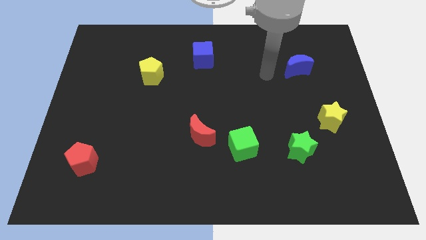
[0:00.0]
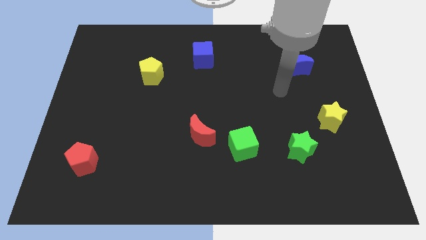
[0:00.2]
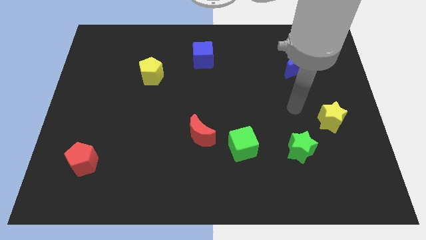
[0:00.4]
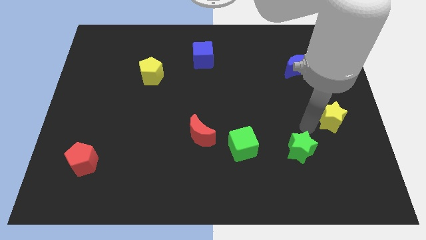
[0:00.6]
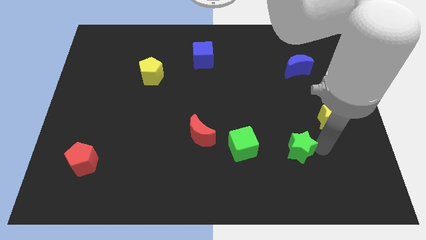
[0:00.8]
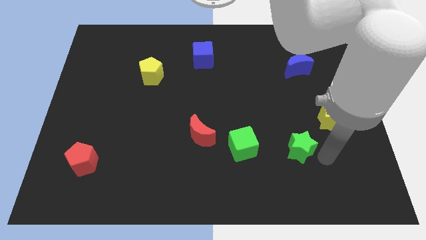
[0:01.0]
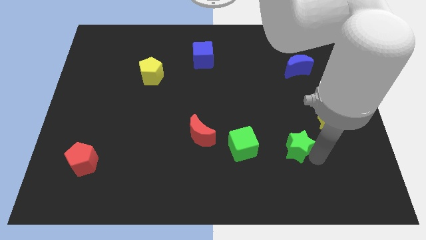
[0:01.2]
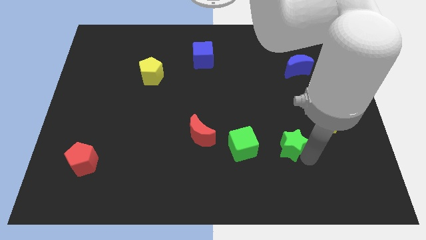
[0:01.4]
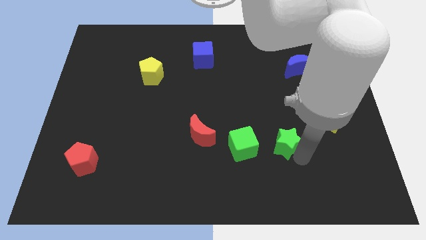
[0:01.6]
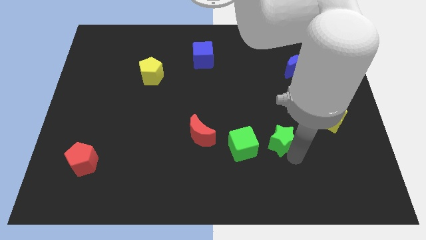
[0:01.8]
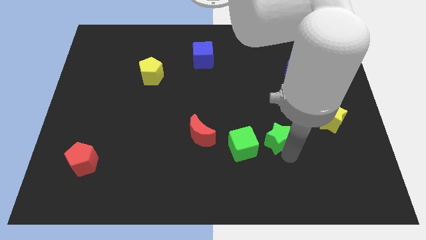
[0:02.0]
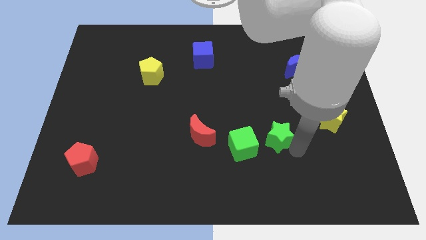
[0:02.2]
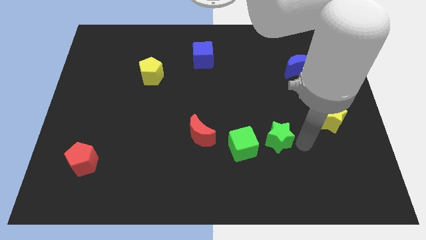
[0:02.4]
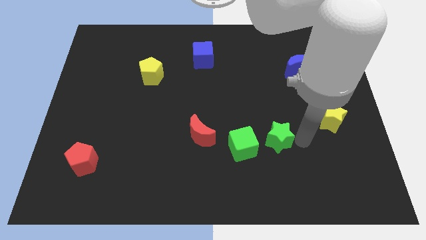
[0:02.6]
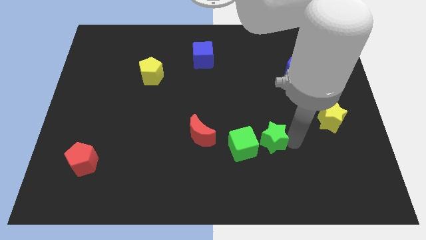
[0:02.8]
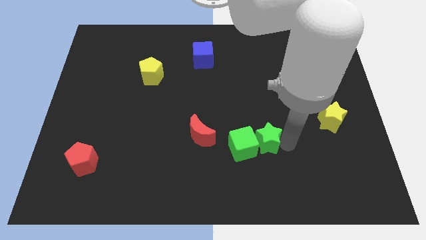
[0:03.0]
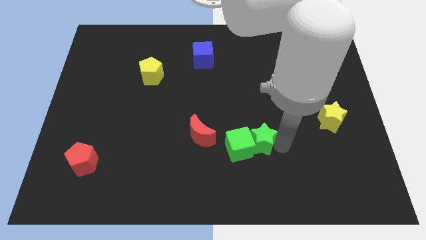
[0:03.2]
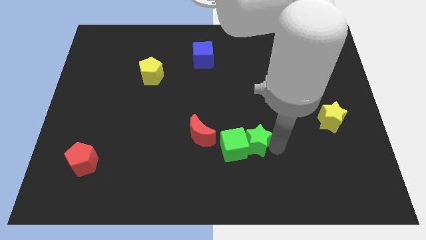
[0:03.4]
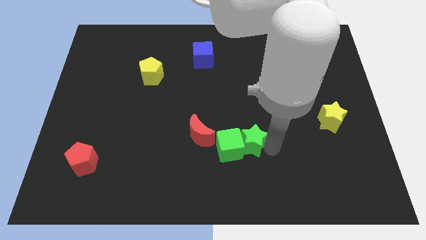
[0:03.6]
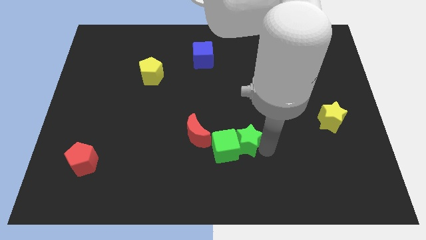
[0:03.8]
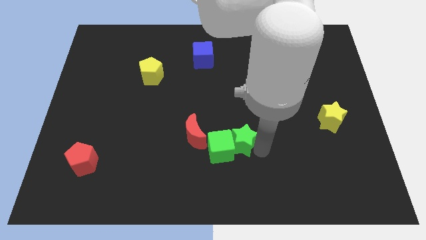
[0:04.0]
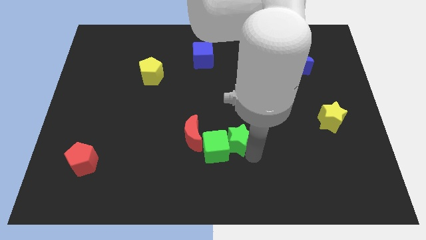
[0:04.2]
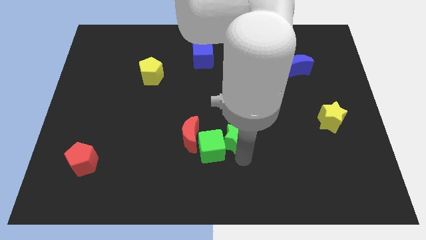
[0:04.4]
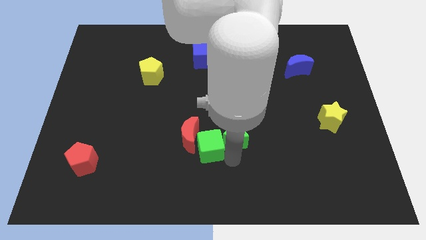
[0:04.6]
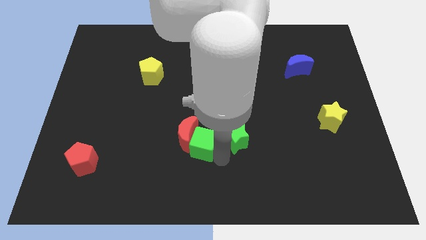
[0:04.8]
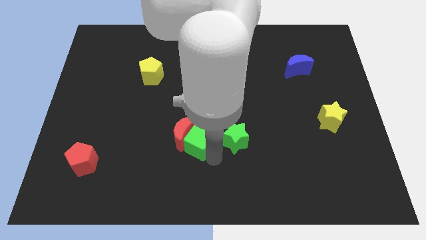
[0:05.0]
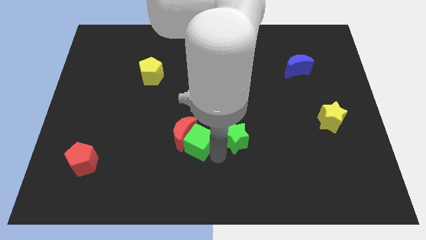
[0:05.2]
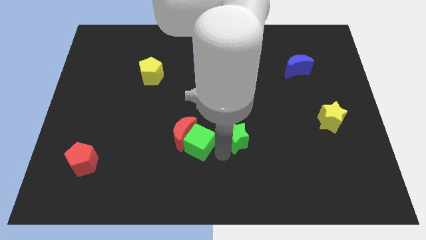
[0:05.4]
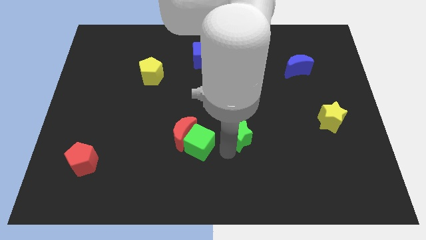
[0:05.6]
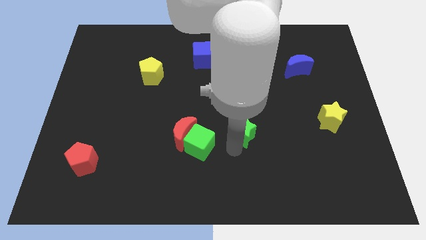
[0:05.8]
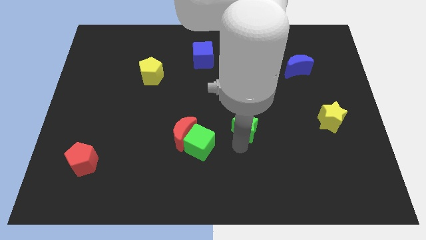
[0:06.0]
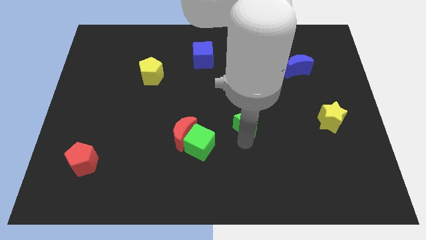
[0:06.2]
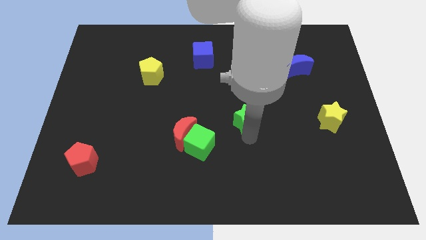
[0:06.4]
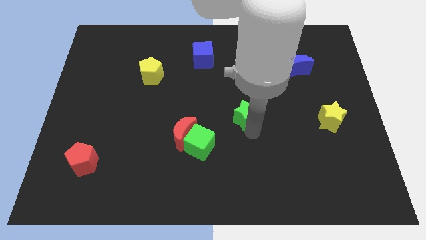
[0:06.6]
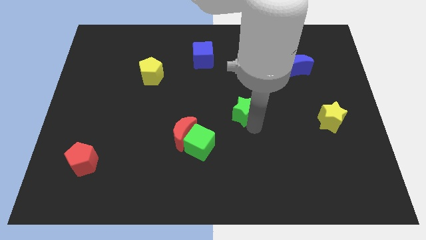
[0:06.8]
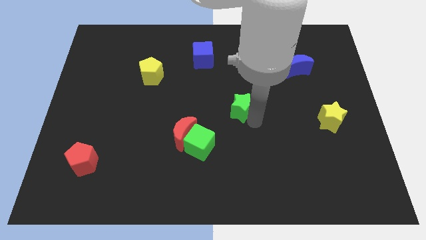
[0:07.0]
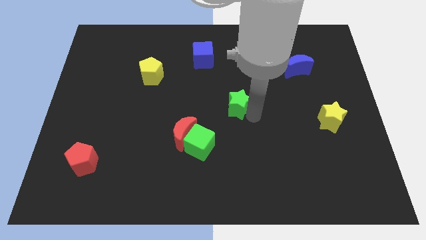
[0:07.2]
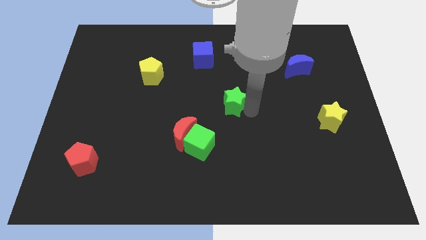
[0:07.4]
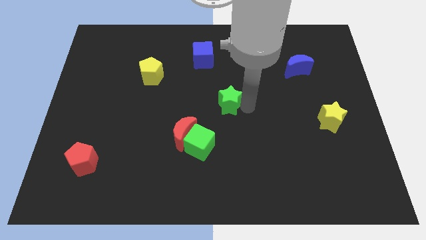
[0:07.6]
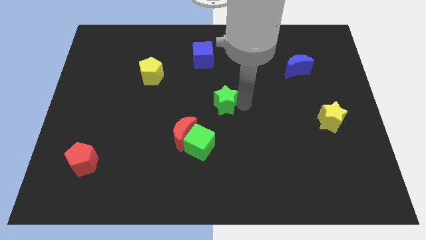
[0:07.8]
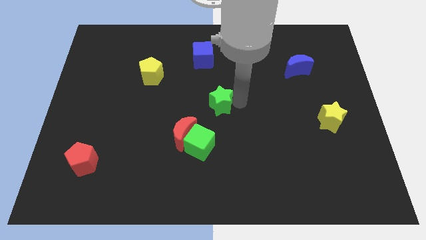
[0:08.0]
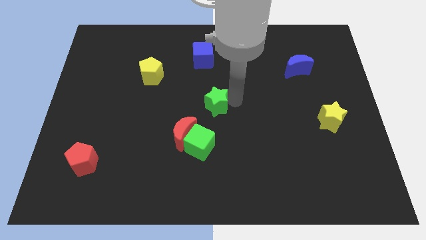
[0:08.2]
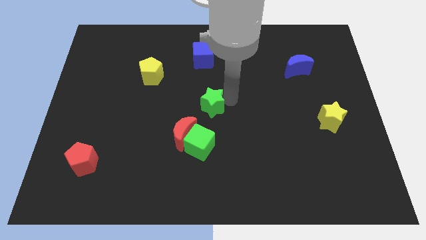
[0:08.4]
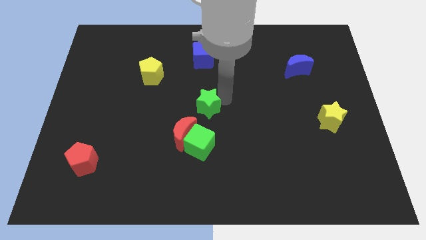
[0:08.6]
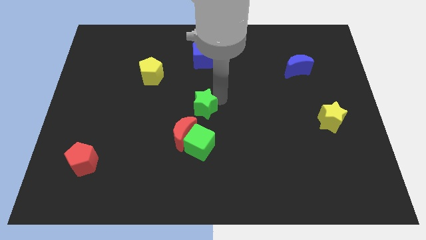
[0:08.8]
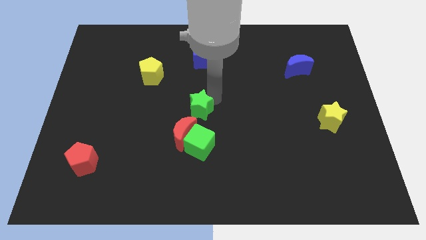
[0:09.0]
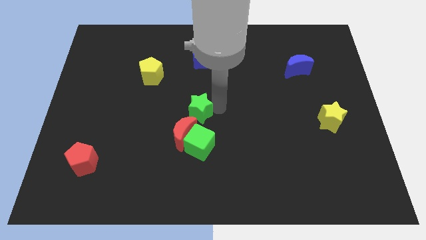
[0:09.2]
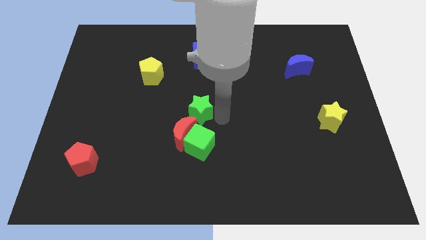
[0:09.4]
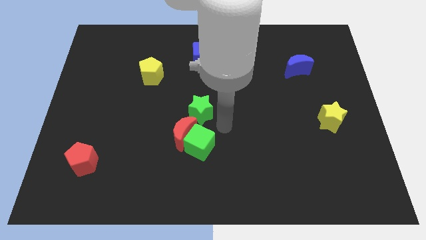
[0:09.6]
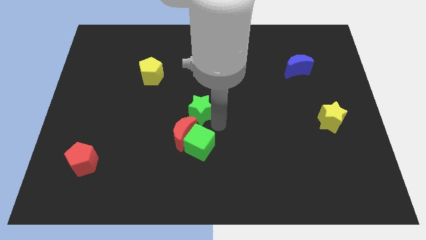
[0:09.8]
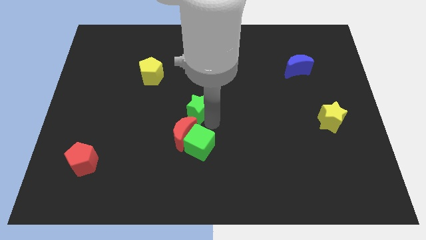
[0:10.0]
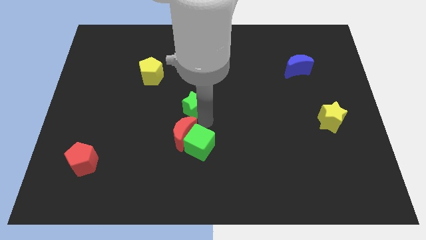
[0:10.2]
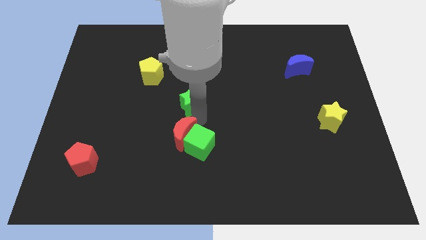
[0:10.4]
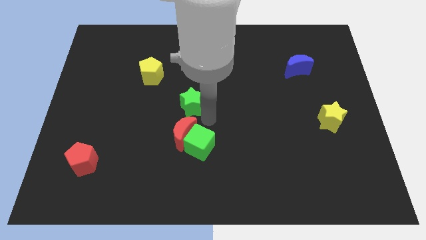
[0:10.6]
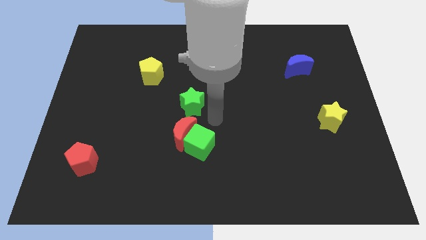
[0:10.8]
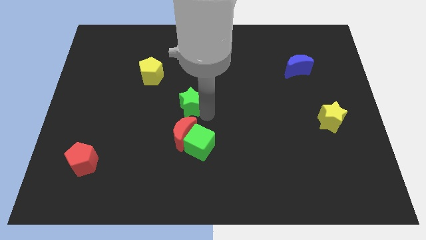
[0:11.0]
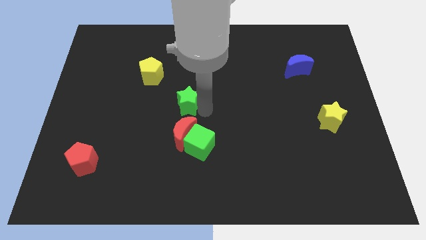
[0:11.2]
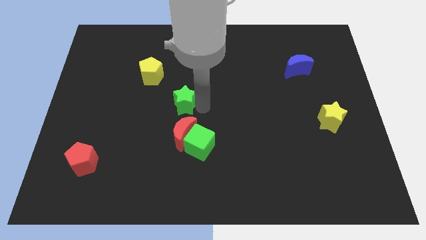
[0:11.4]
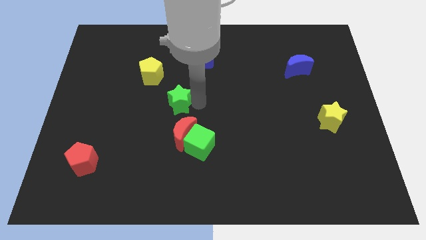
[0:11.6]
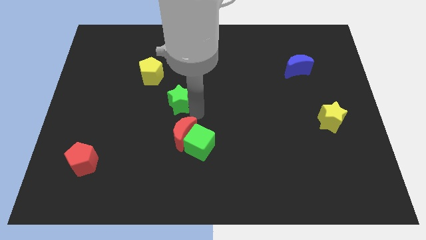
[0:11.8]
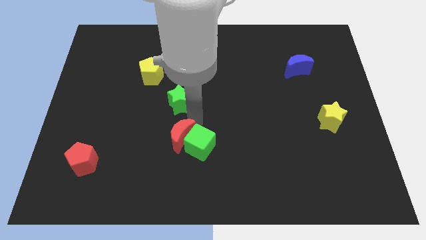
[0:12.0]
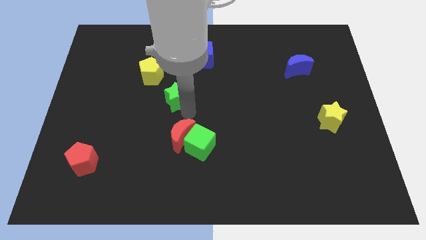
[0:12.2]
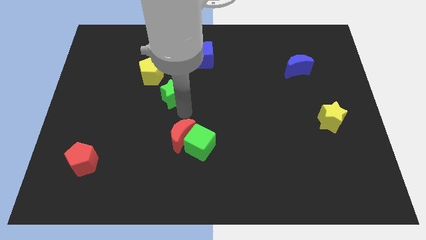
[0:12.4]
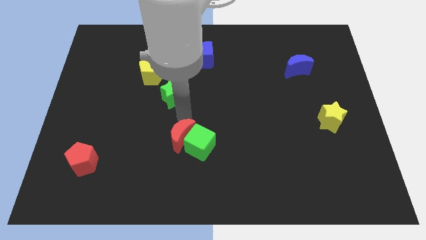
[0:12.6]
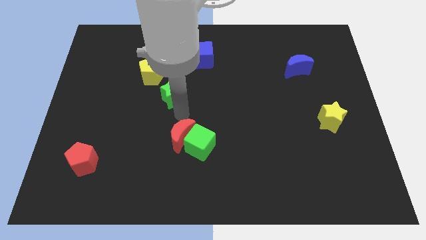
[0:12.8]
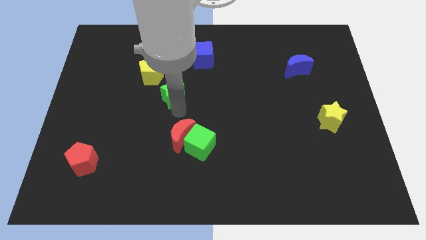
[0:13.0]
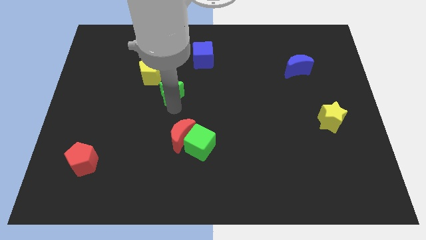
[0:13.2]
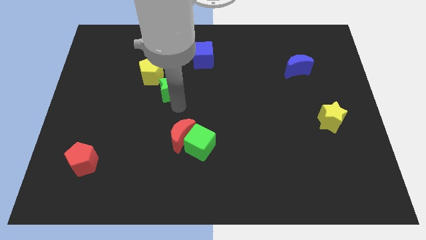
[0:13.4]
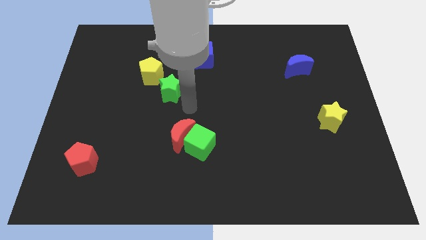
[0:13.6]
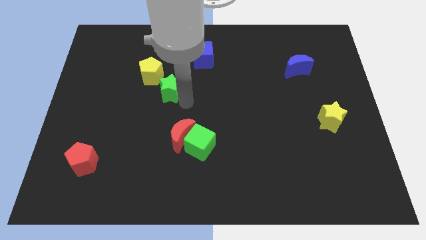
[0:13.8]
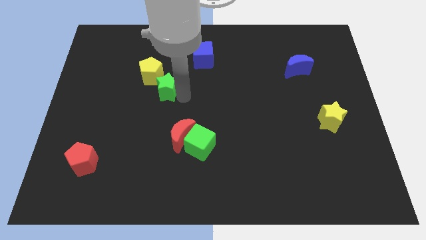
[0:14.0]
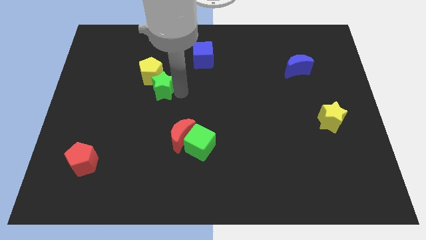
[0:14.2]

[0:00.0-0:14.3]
move the green star to the yellow pentagon

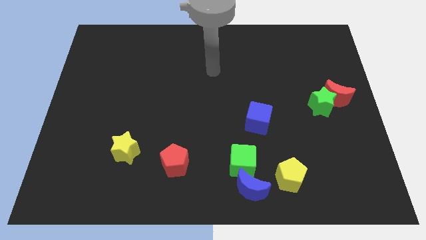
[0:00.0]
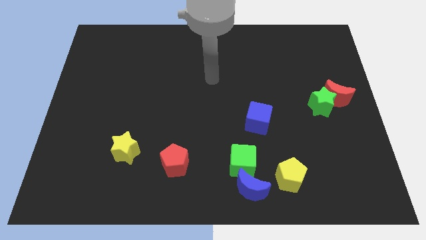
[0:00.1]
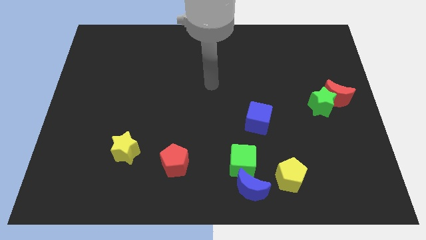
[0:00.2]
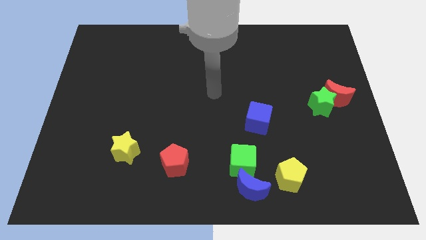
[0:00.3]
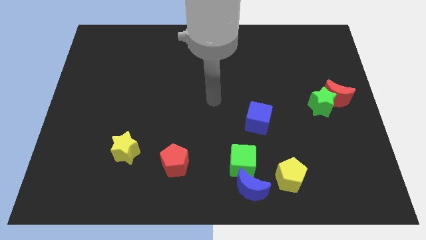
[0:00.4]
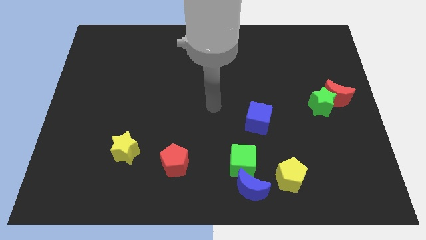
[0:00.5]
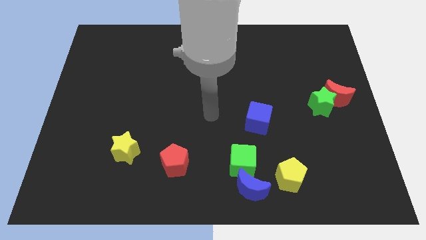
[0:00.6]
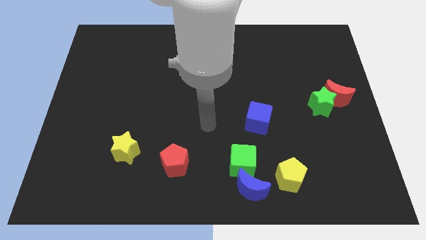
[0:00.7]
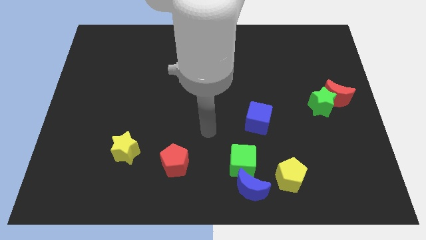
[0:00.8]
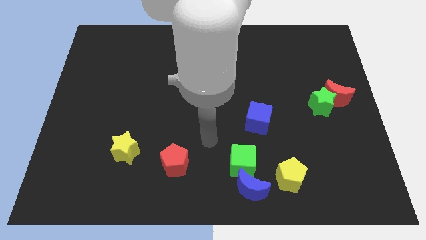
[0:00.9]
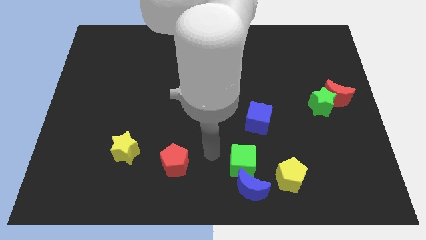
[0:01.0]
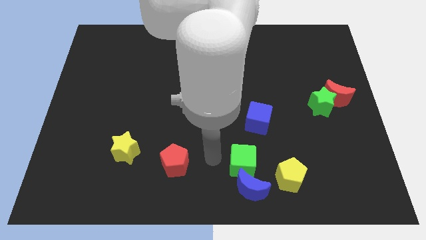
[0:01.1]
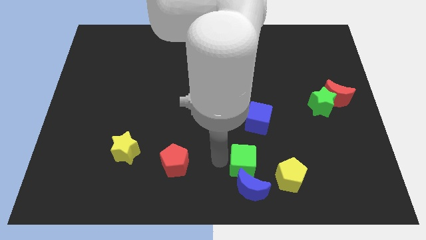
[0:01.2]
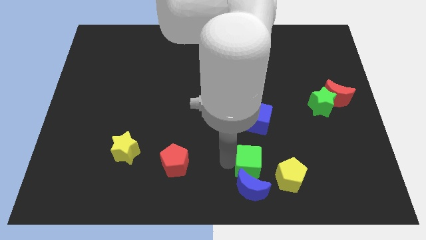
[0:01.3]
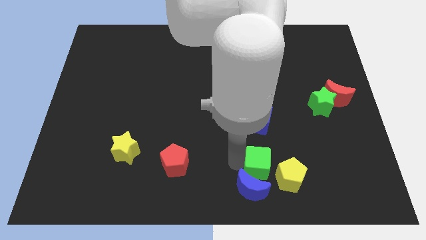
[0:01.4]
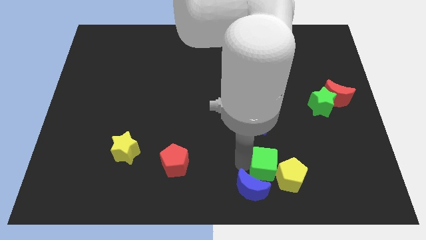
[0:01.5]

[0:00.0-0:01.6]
push the green cube next to the yellow pentagon
